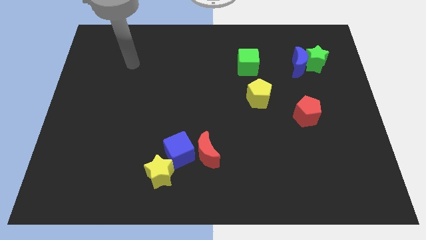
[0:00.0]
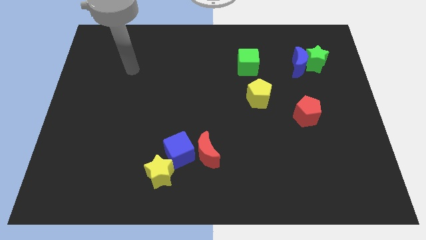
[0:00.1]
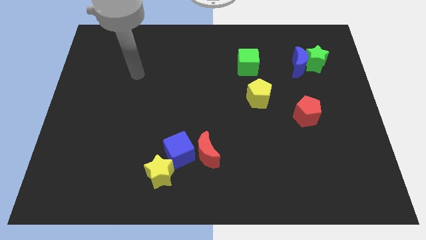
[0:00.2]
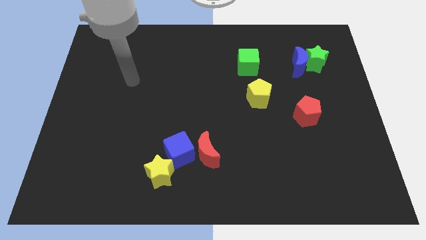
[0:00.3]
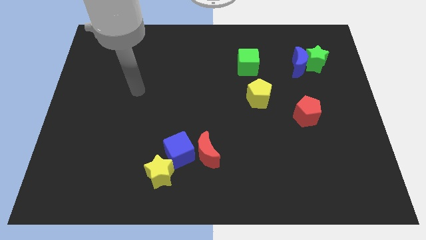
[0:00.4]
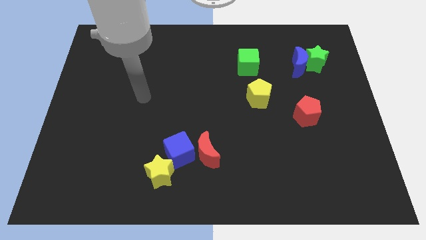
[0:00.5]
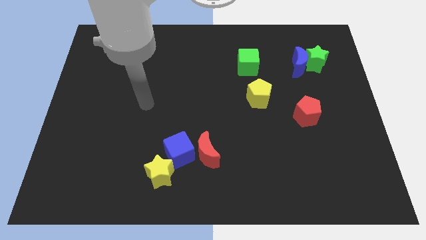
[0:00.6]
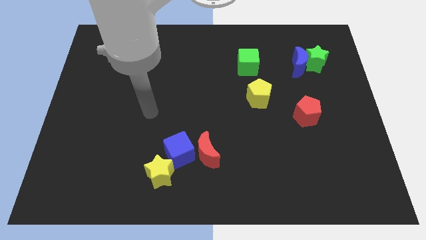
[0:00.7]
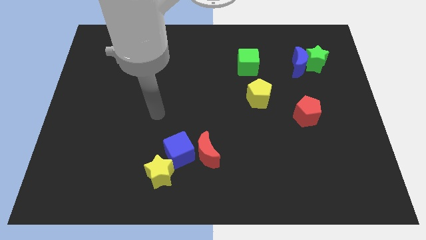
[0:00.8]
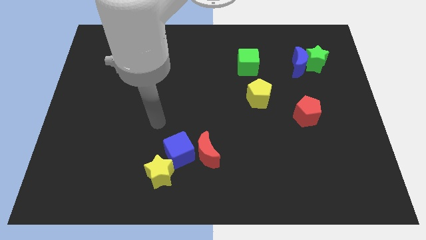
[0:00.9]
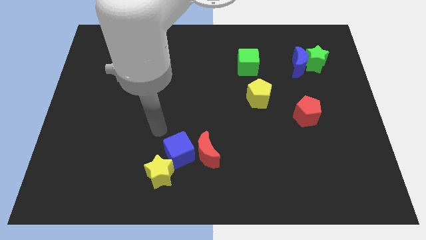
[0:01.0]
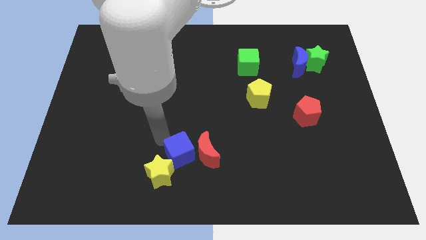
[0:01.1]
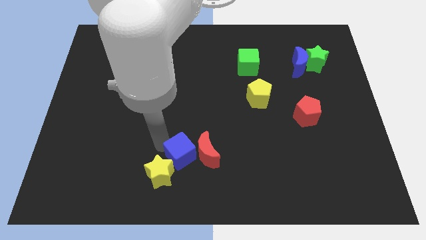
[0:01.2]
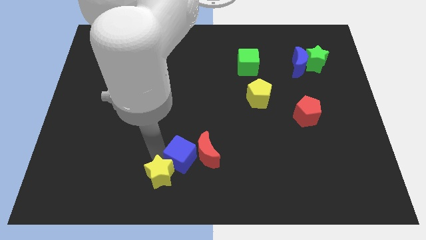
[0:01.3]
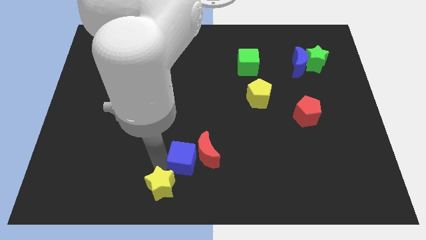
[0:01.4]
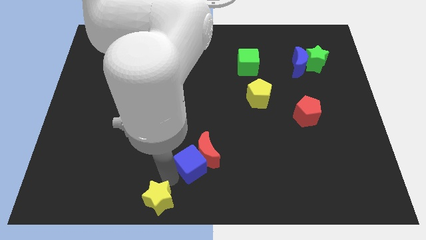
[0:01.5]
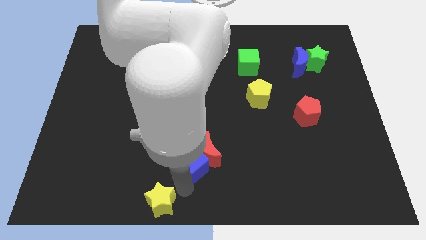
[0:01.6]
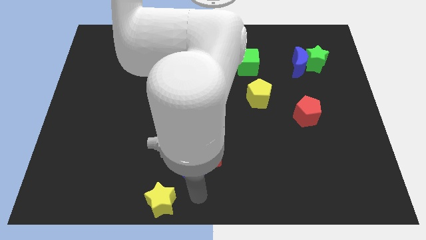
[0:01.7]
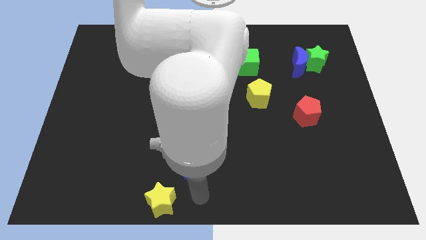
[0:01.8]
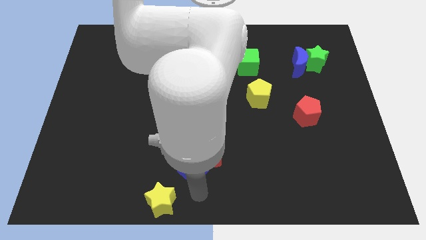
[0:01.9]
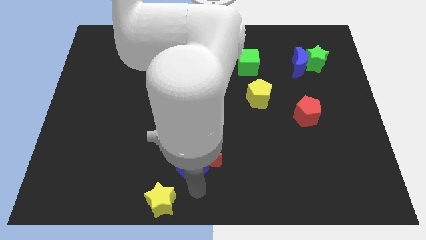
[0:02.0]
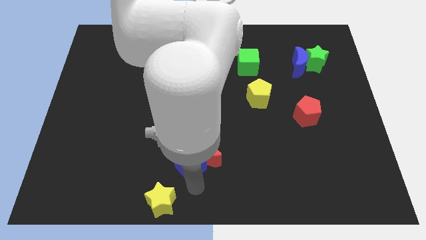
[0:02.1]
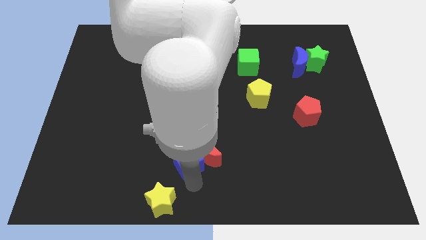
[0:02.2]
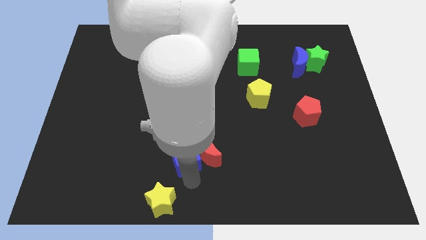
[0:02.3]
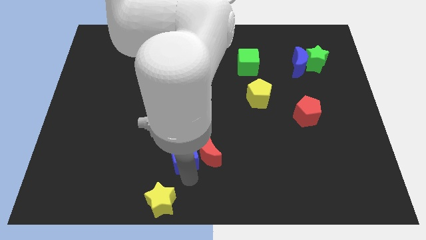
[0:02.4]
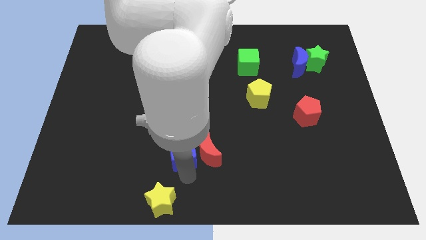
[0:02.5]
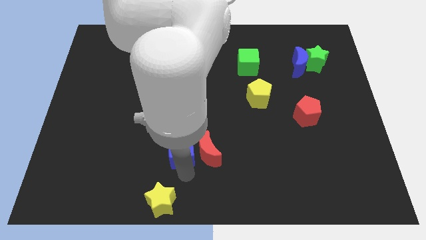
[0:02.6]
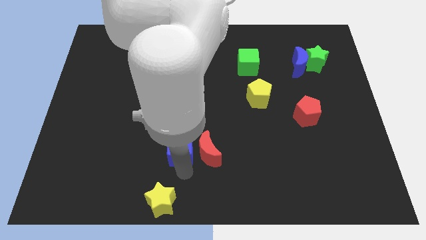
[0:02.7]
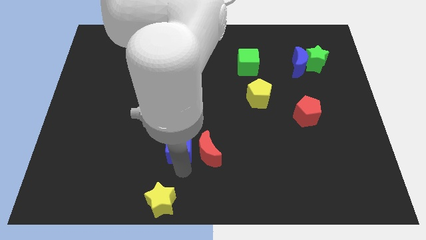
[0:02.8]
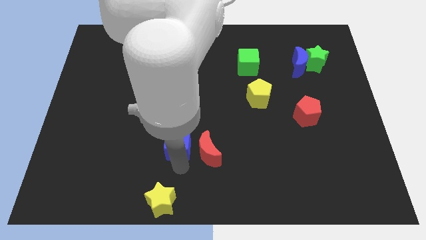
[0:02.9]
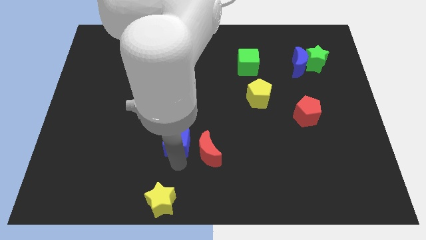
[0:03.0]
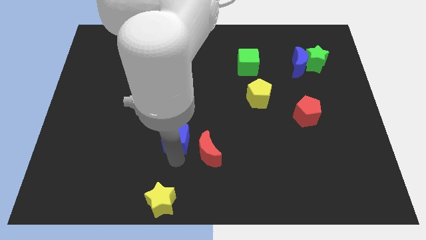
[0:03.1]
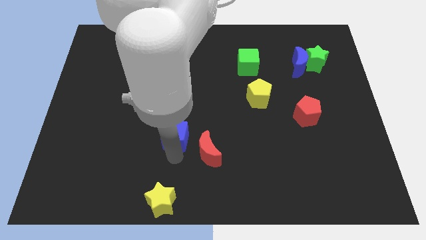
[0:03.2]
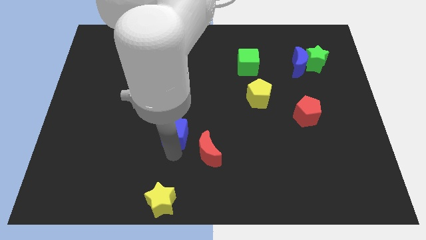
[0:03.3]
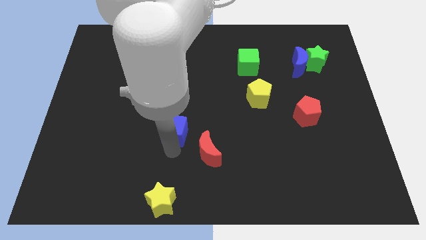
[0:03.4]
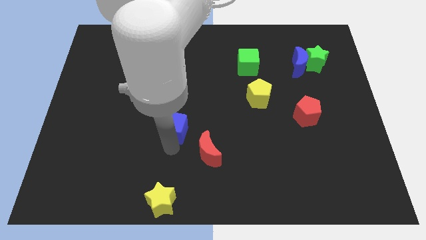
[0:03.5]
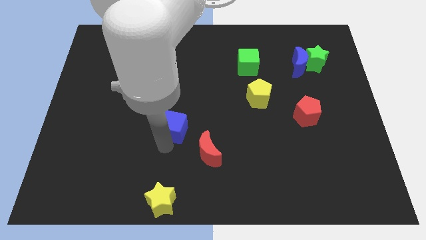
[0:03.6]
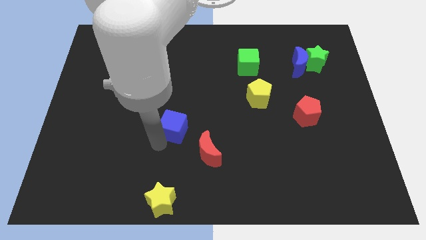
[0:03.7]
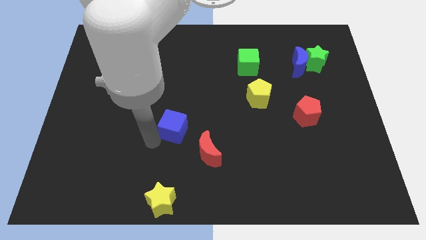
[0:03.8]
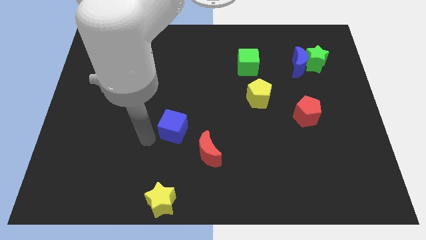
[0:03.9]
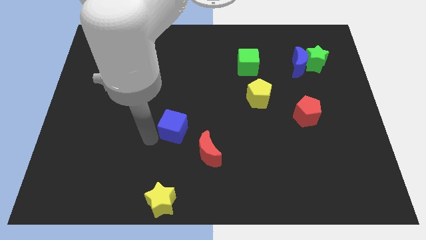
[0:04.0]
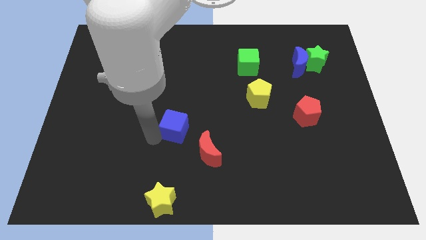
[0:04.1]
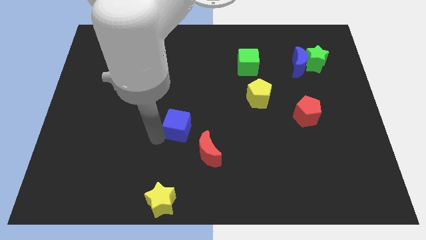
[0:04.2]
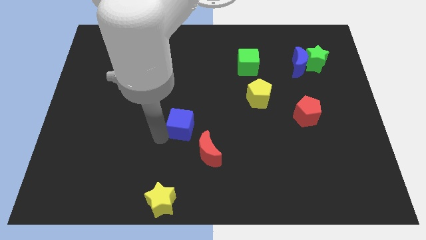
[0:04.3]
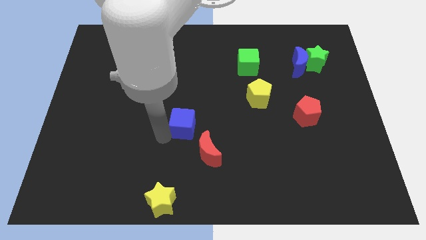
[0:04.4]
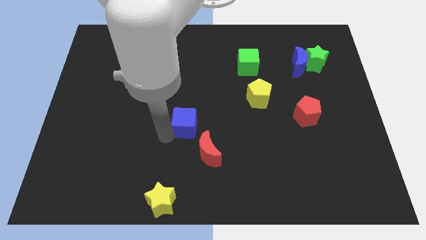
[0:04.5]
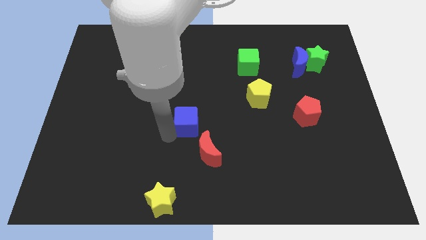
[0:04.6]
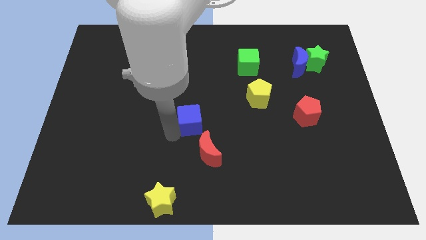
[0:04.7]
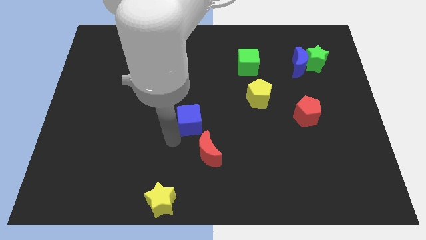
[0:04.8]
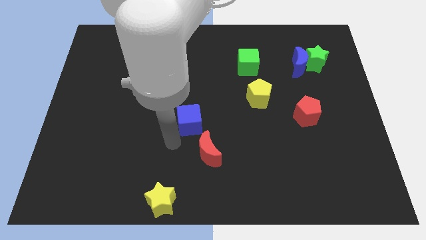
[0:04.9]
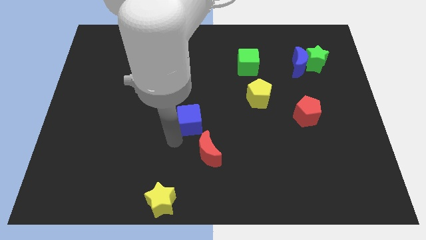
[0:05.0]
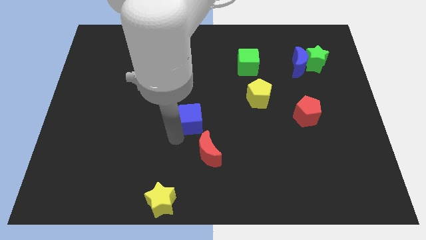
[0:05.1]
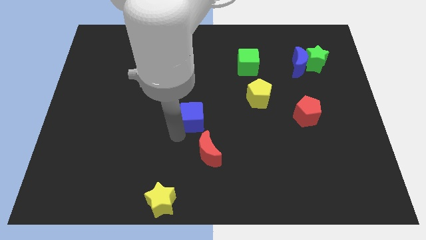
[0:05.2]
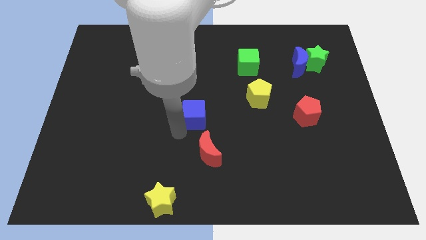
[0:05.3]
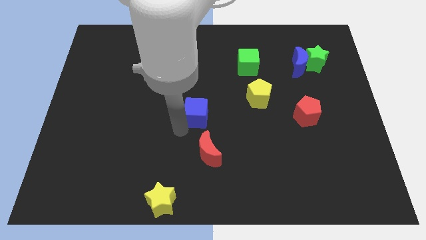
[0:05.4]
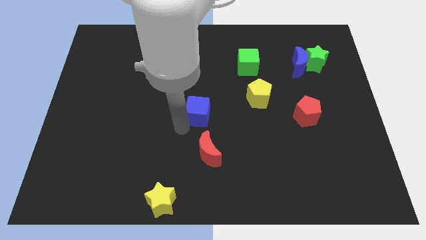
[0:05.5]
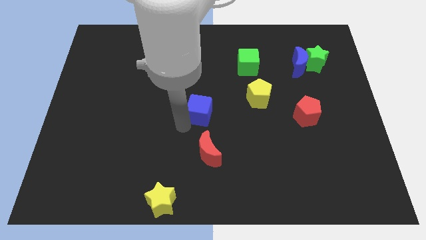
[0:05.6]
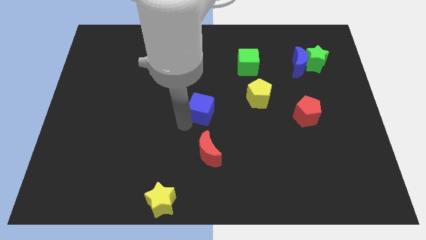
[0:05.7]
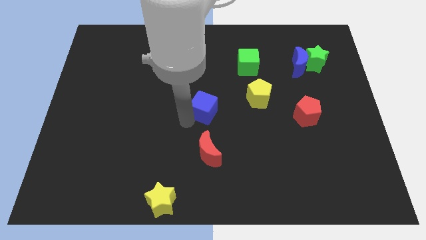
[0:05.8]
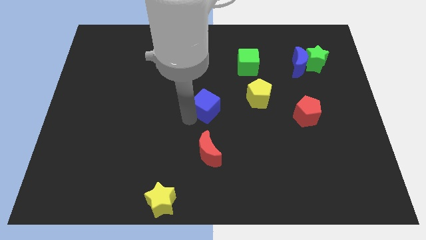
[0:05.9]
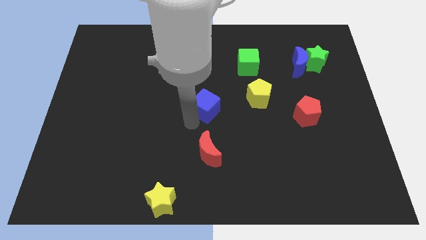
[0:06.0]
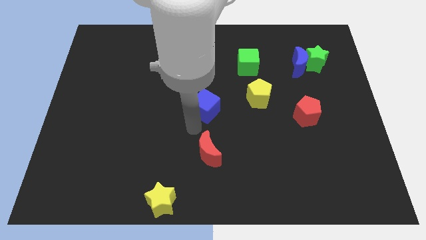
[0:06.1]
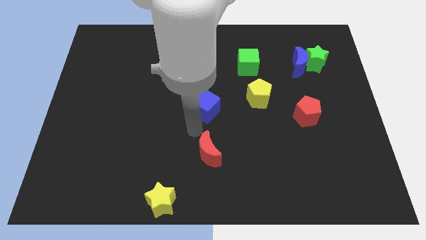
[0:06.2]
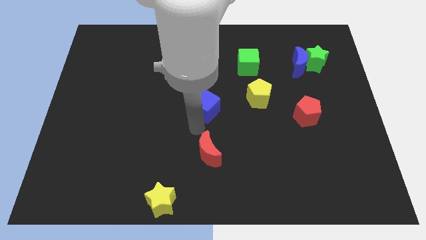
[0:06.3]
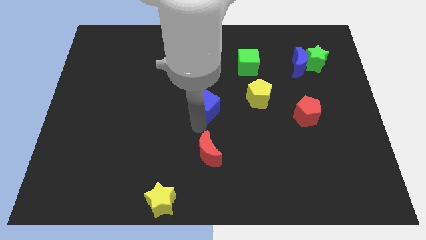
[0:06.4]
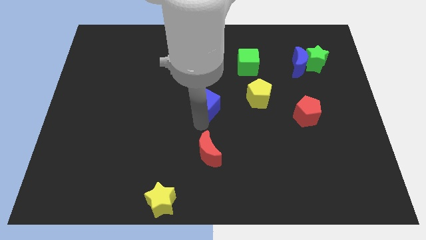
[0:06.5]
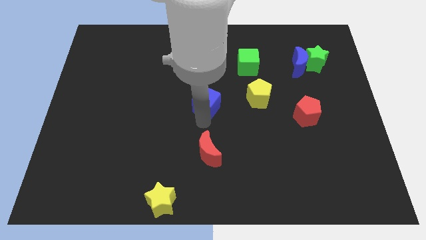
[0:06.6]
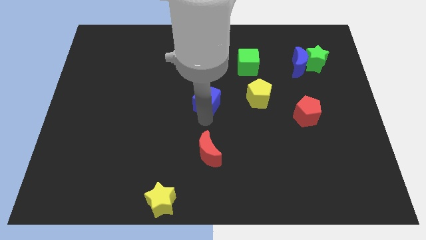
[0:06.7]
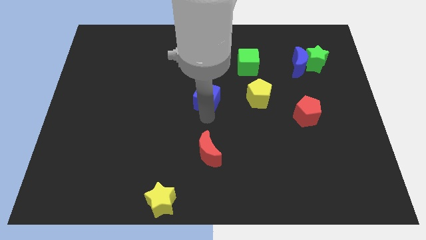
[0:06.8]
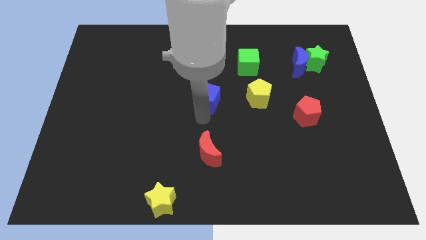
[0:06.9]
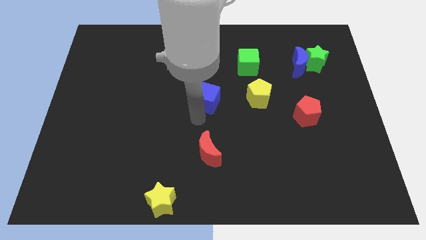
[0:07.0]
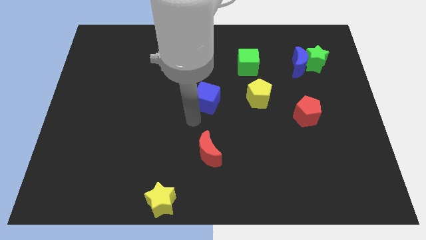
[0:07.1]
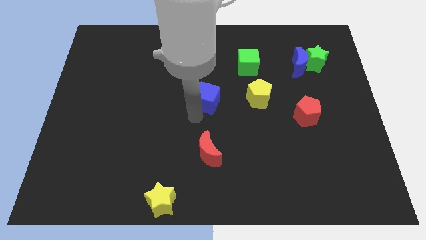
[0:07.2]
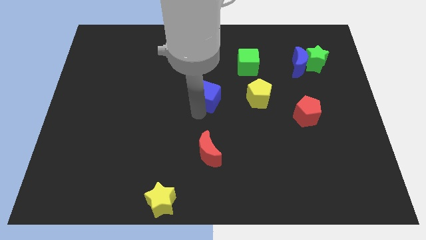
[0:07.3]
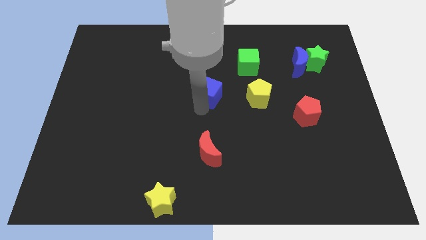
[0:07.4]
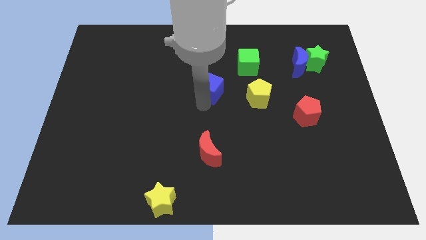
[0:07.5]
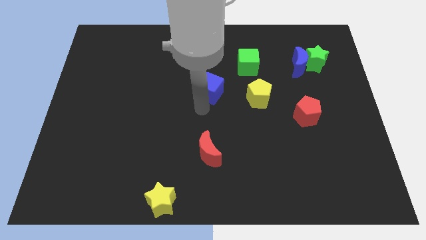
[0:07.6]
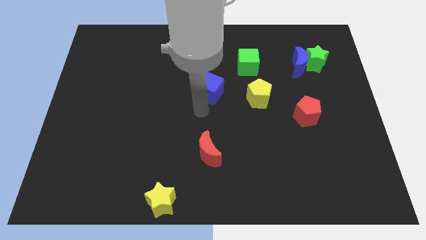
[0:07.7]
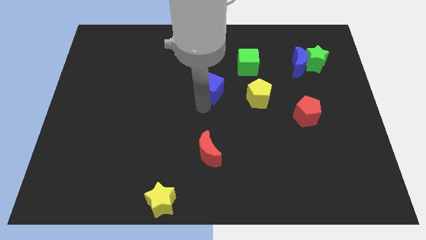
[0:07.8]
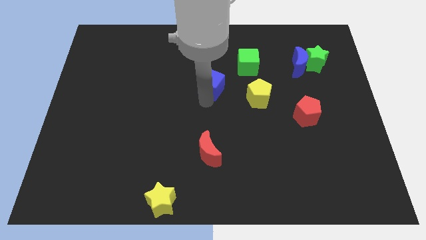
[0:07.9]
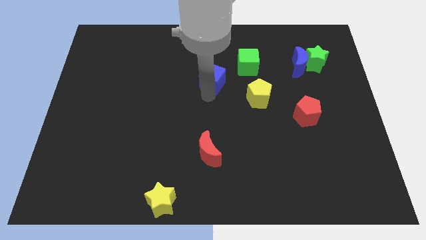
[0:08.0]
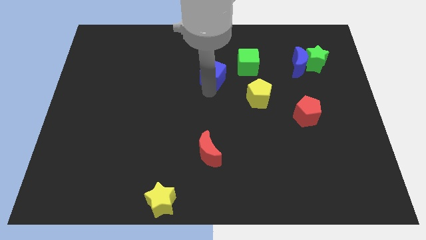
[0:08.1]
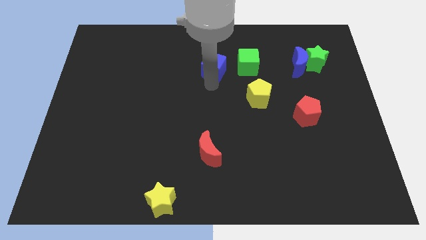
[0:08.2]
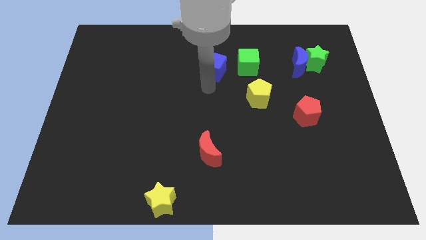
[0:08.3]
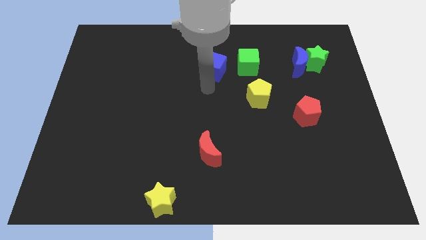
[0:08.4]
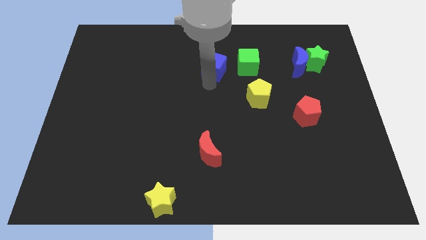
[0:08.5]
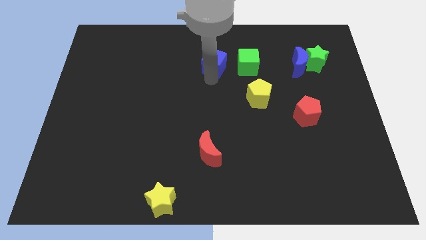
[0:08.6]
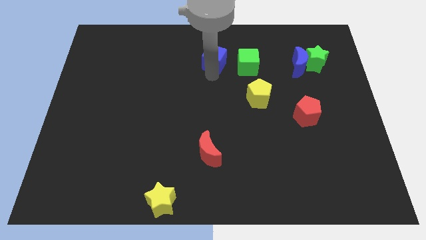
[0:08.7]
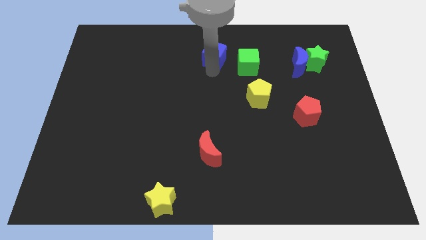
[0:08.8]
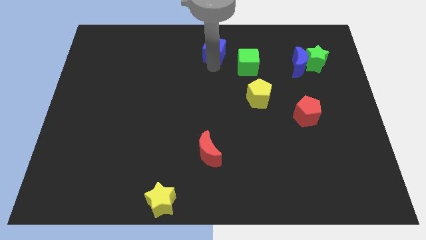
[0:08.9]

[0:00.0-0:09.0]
push the blue cube to the top side
